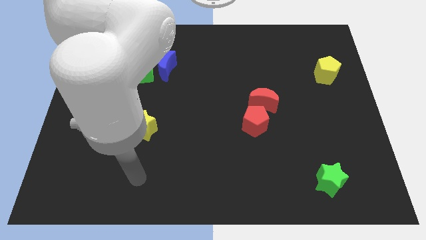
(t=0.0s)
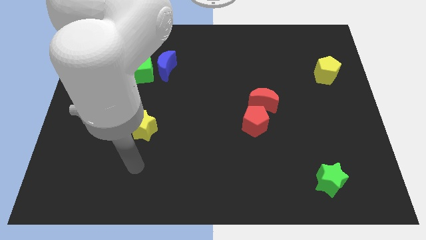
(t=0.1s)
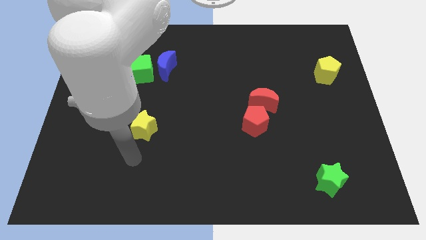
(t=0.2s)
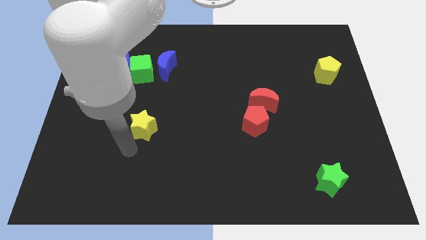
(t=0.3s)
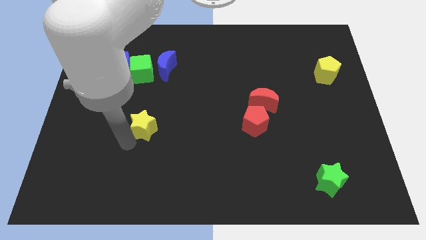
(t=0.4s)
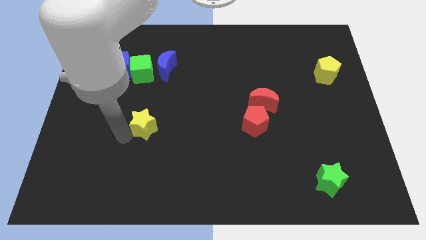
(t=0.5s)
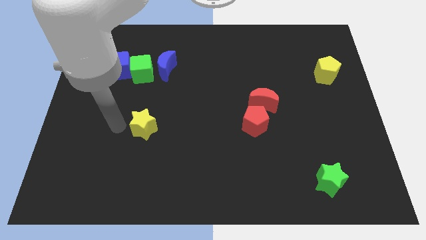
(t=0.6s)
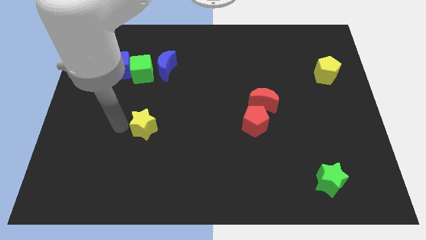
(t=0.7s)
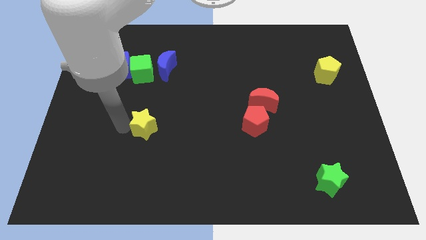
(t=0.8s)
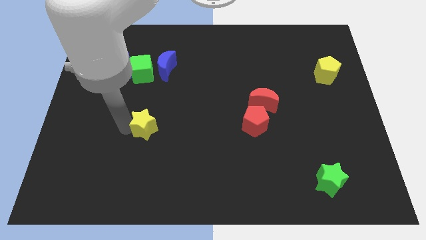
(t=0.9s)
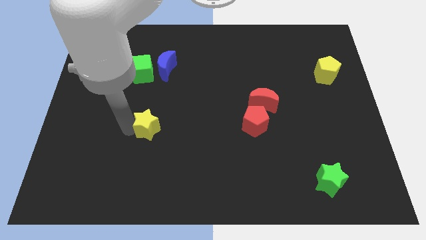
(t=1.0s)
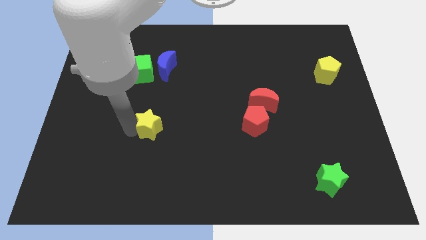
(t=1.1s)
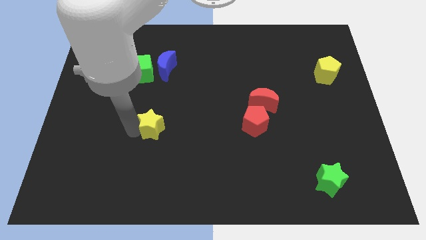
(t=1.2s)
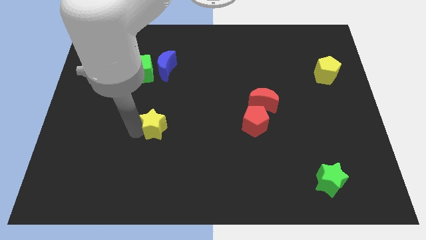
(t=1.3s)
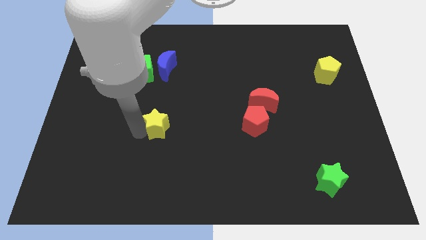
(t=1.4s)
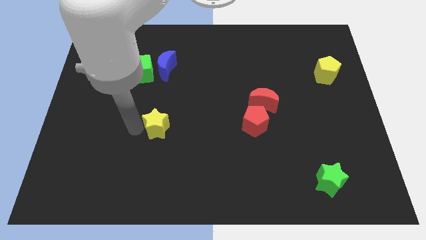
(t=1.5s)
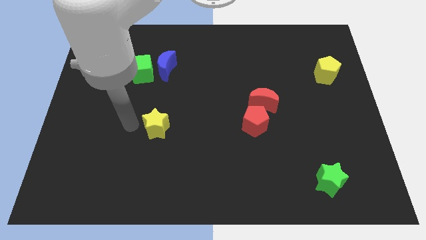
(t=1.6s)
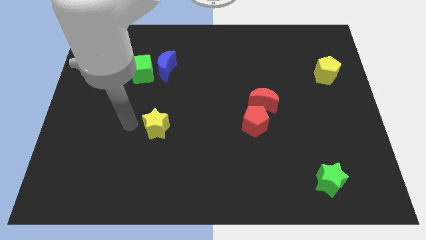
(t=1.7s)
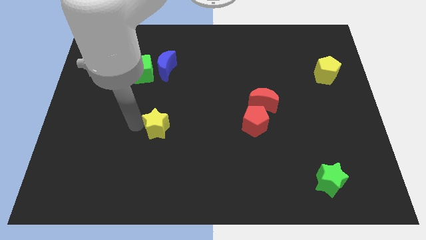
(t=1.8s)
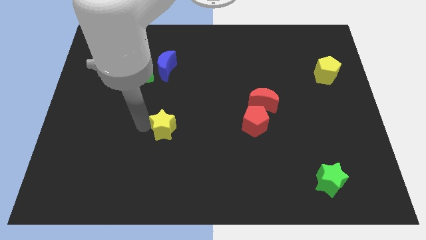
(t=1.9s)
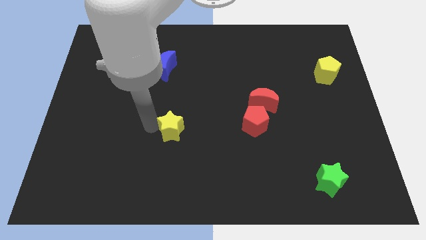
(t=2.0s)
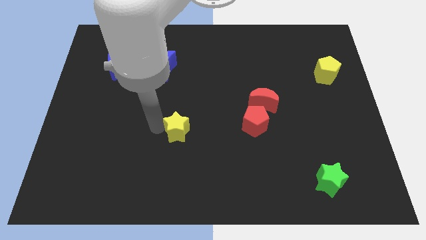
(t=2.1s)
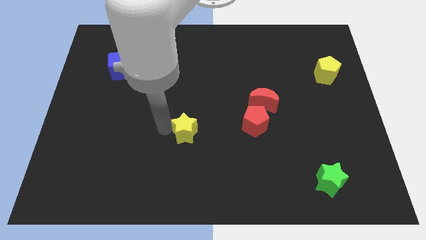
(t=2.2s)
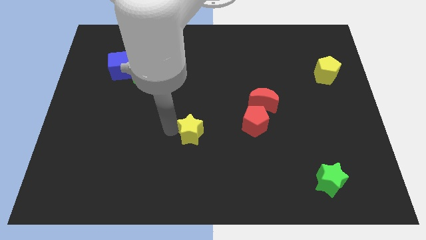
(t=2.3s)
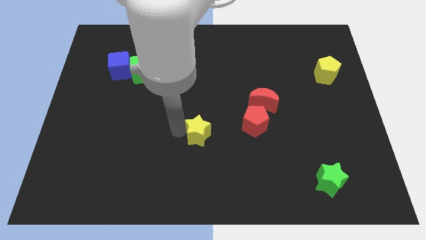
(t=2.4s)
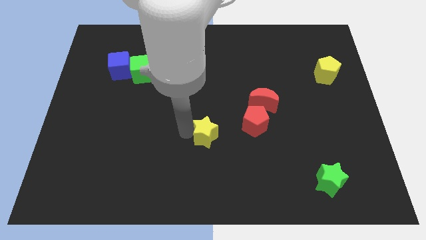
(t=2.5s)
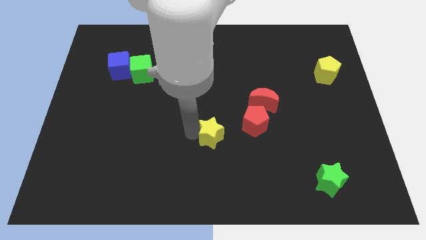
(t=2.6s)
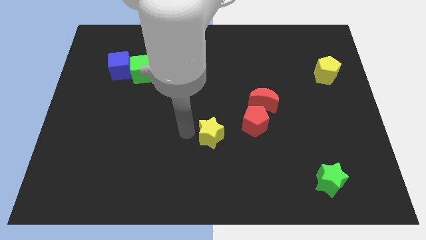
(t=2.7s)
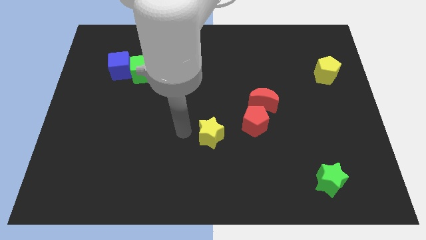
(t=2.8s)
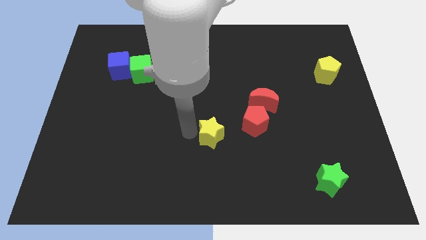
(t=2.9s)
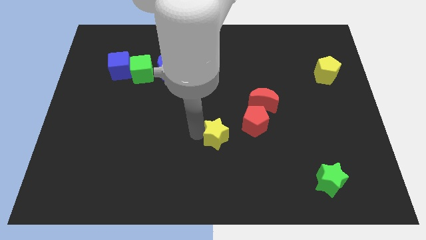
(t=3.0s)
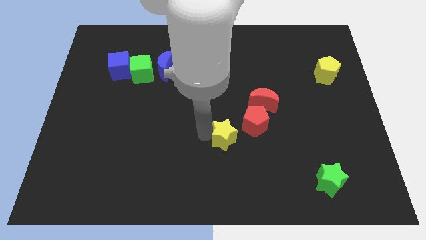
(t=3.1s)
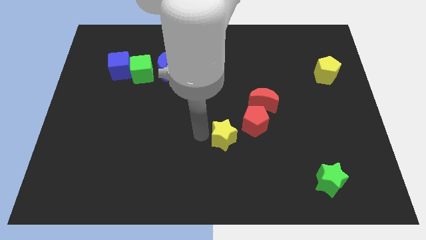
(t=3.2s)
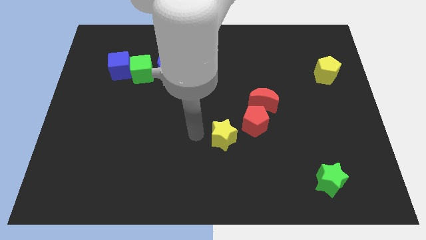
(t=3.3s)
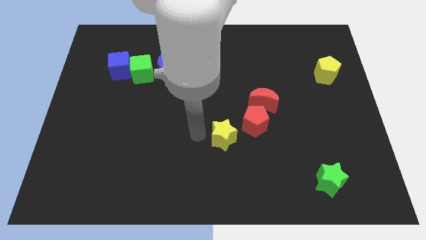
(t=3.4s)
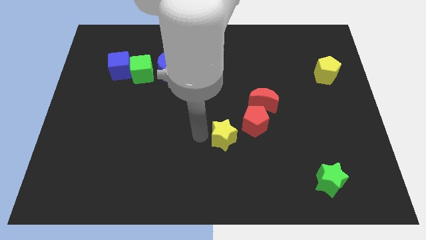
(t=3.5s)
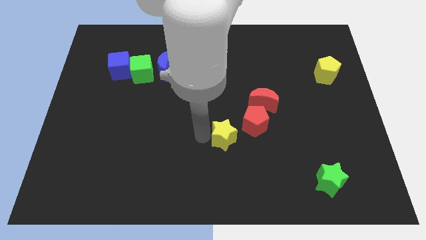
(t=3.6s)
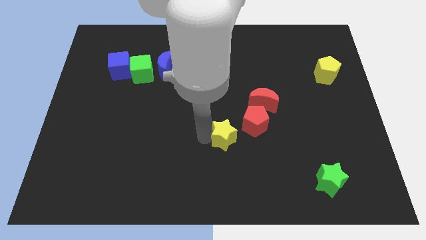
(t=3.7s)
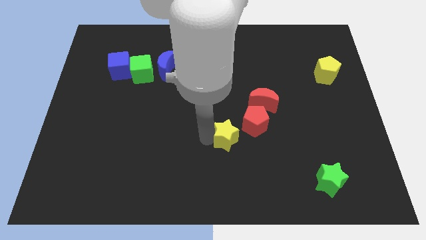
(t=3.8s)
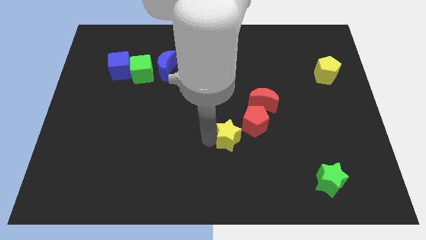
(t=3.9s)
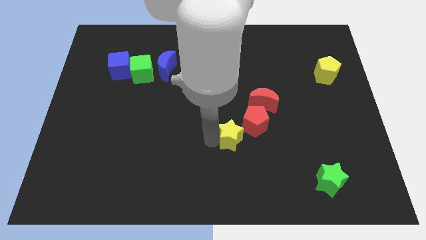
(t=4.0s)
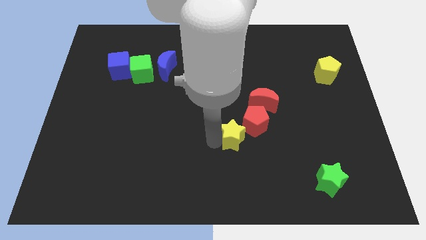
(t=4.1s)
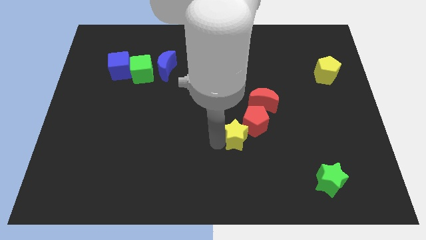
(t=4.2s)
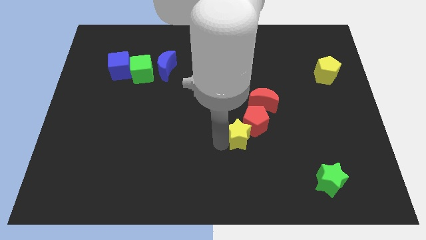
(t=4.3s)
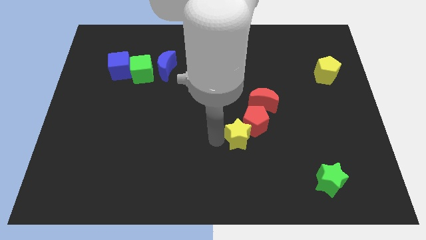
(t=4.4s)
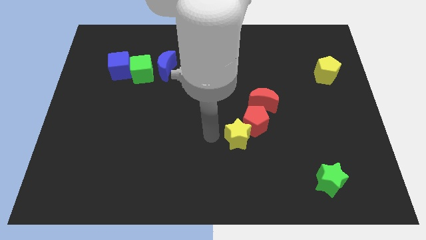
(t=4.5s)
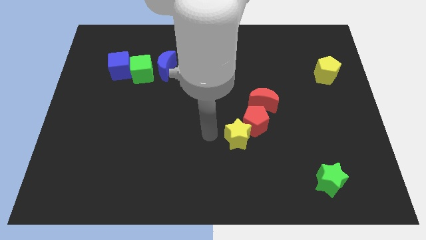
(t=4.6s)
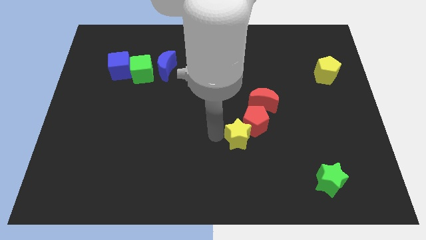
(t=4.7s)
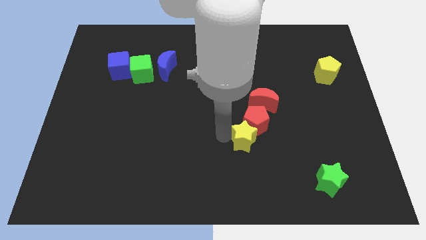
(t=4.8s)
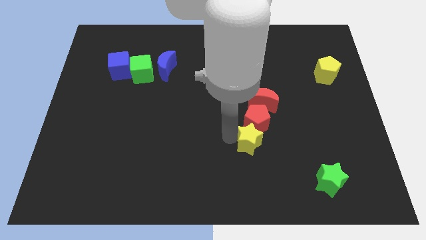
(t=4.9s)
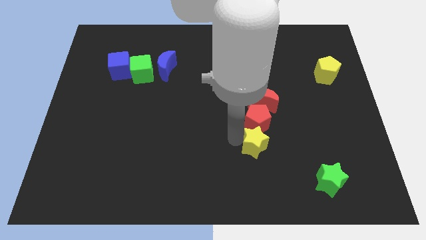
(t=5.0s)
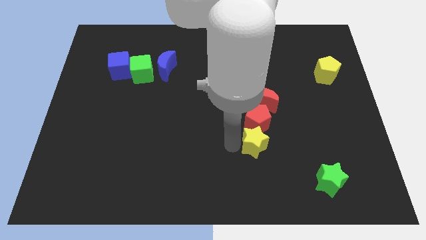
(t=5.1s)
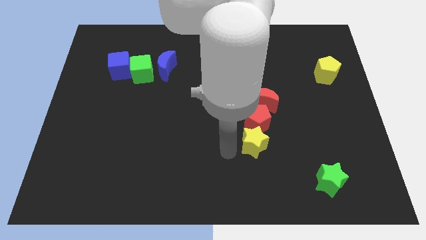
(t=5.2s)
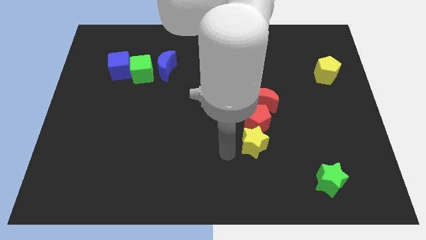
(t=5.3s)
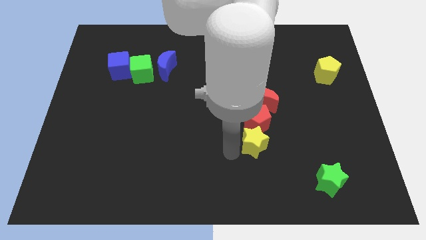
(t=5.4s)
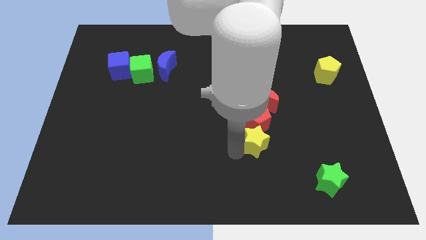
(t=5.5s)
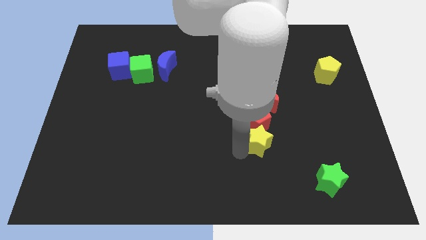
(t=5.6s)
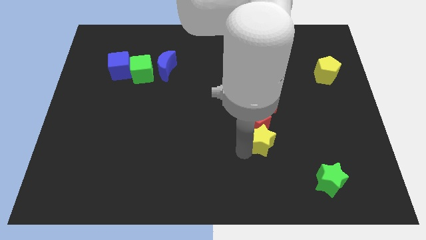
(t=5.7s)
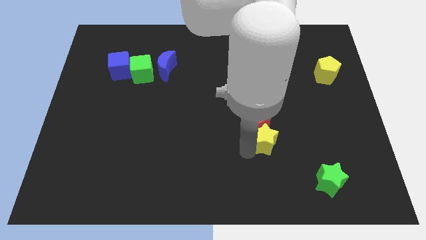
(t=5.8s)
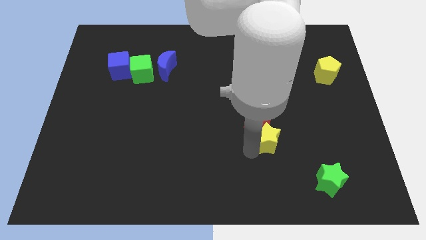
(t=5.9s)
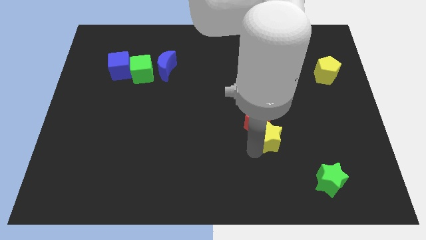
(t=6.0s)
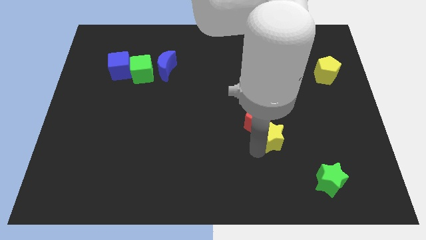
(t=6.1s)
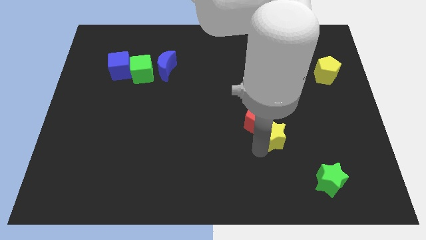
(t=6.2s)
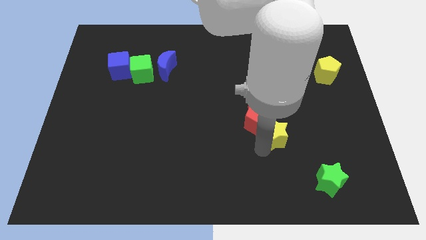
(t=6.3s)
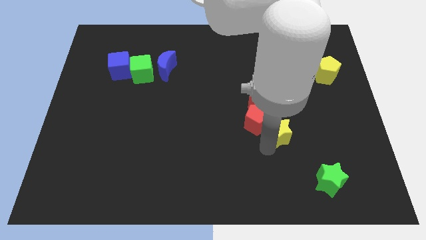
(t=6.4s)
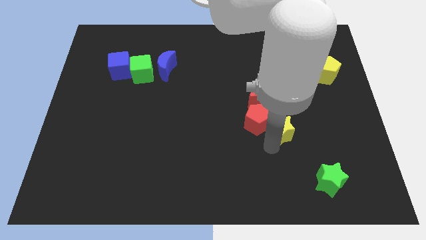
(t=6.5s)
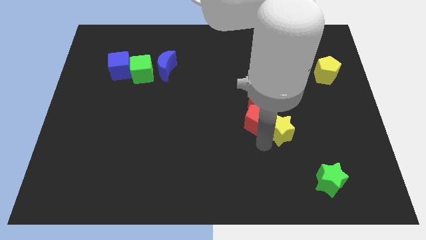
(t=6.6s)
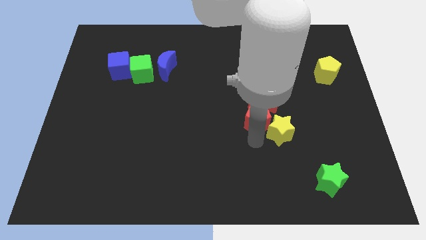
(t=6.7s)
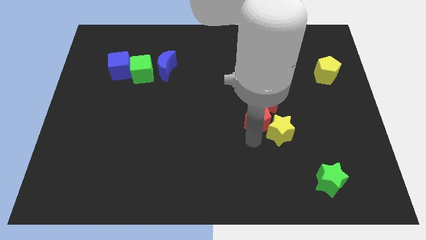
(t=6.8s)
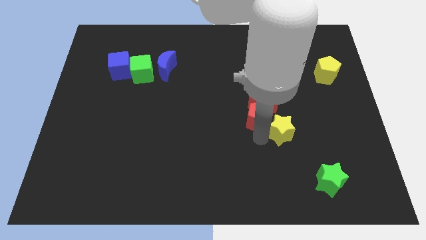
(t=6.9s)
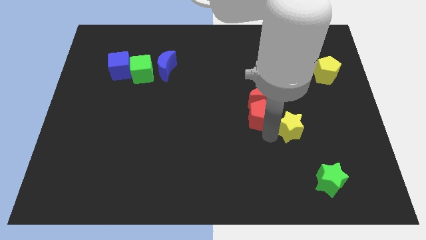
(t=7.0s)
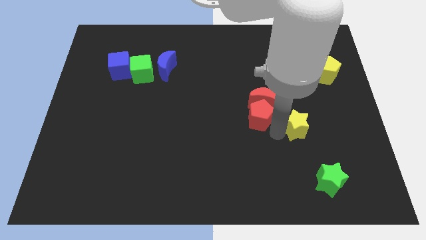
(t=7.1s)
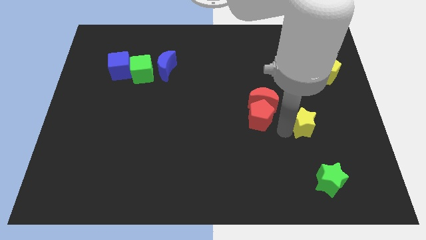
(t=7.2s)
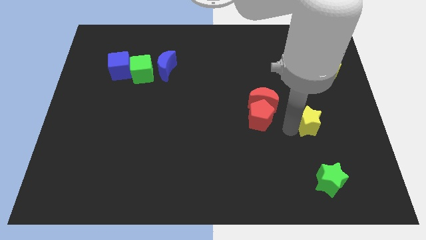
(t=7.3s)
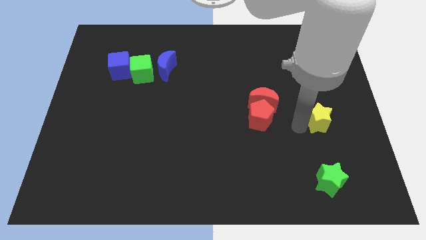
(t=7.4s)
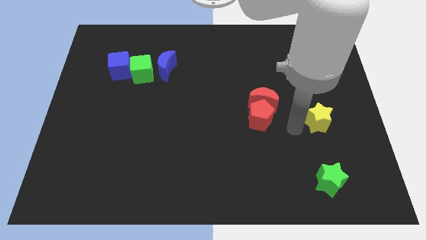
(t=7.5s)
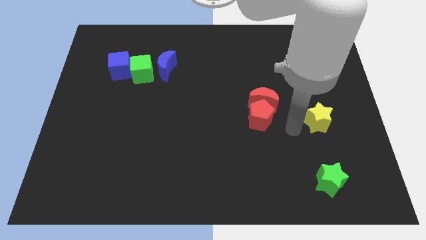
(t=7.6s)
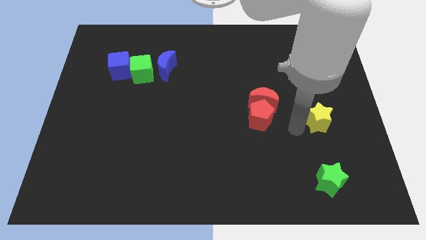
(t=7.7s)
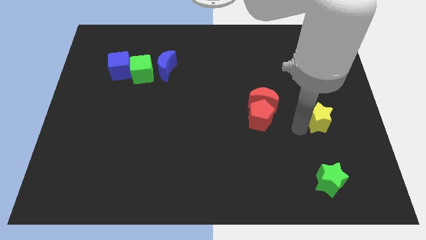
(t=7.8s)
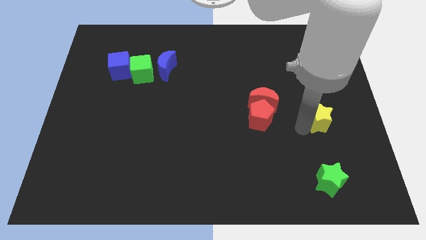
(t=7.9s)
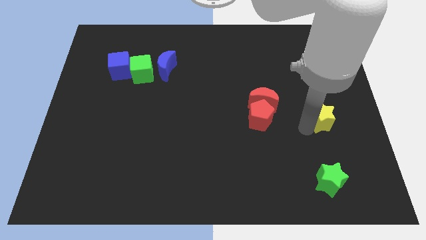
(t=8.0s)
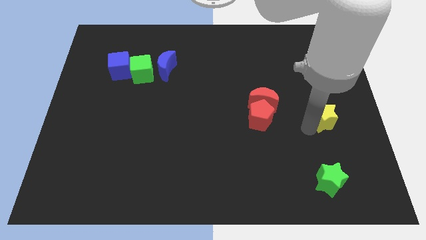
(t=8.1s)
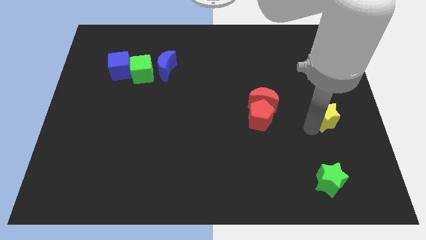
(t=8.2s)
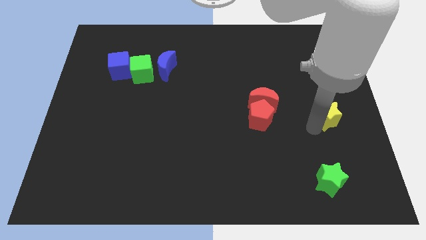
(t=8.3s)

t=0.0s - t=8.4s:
slide the yellow star to the right side

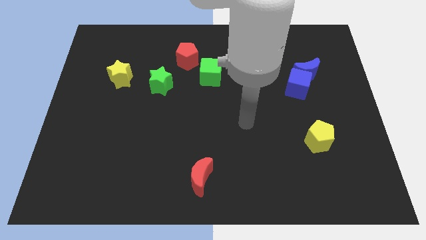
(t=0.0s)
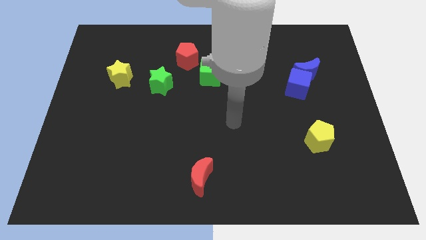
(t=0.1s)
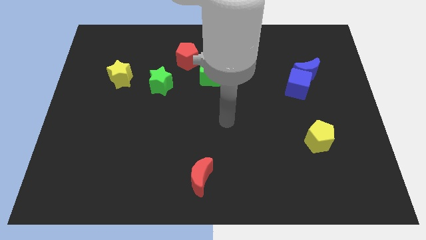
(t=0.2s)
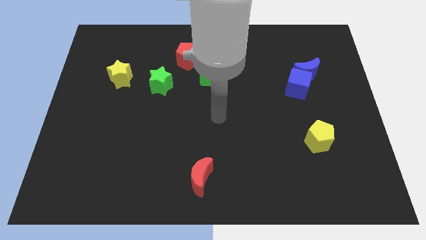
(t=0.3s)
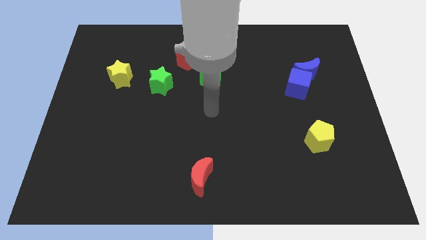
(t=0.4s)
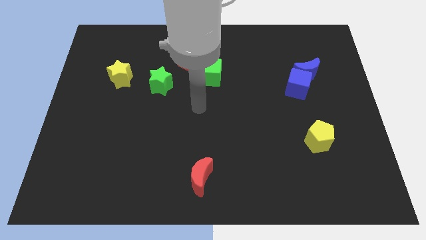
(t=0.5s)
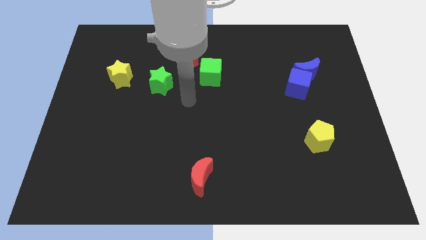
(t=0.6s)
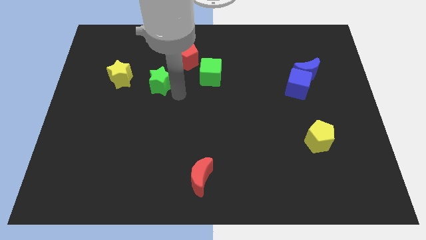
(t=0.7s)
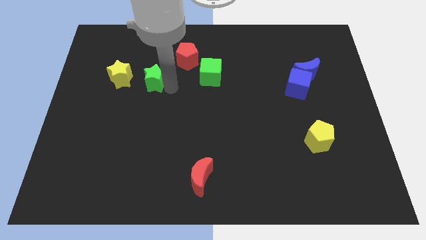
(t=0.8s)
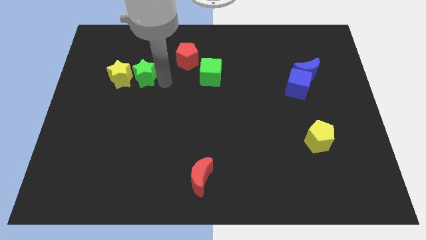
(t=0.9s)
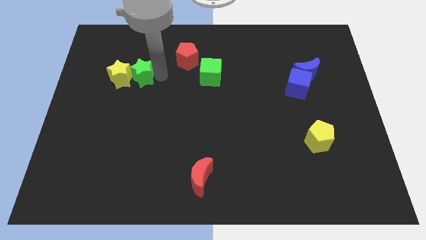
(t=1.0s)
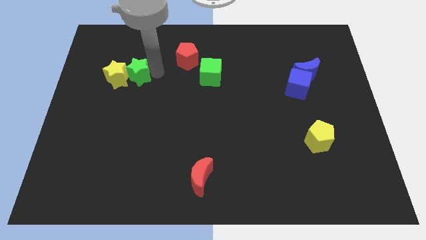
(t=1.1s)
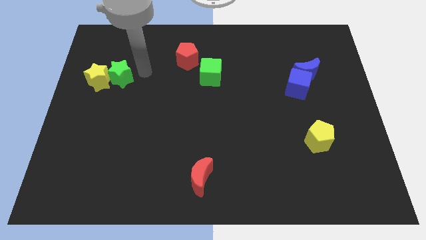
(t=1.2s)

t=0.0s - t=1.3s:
push the yellow star to the left side of the board
